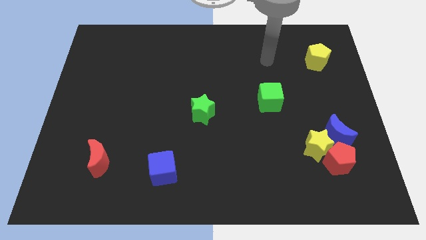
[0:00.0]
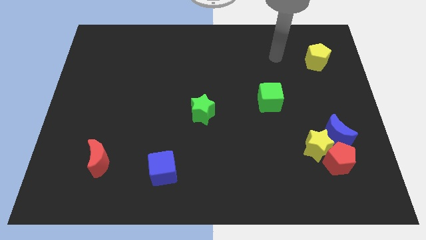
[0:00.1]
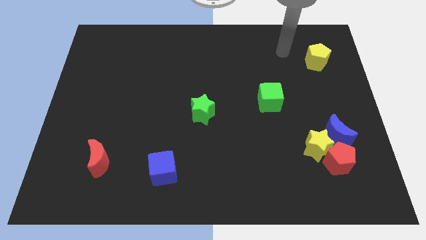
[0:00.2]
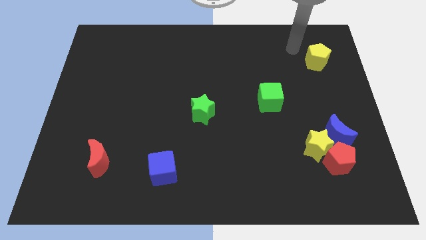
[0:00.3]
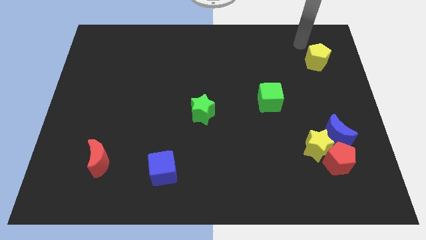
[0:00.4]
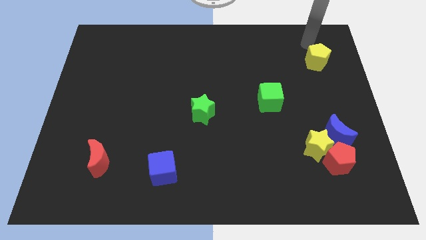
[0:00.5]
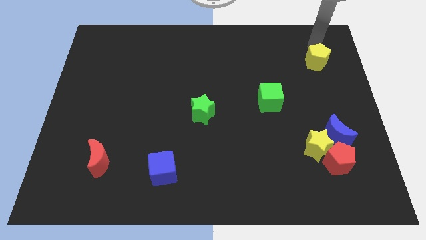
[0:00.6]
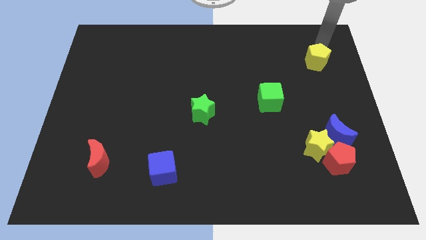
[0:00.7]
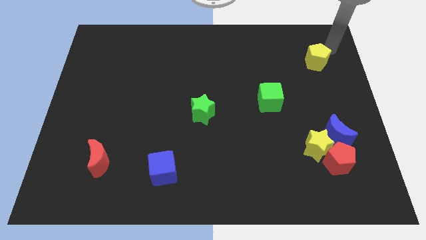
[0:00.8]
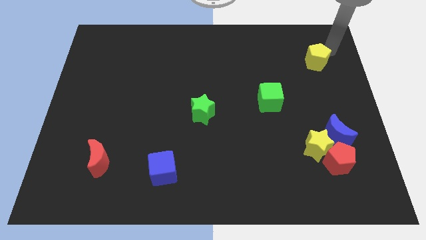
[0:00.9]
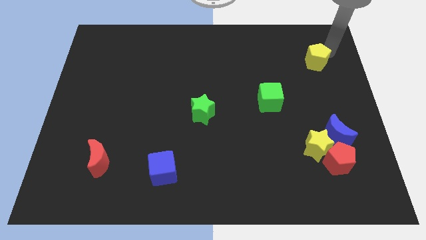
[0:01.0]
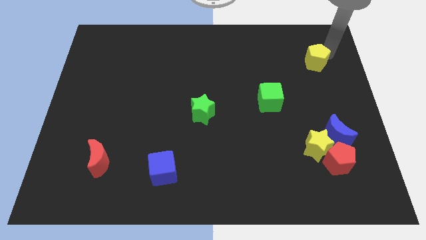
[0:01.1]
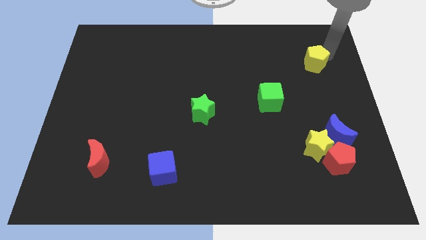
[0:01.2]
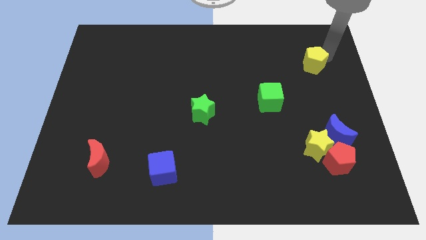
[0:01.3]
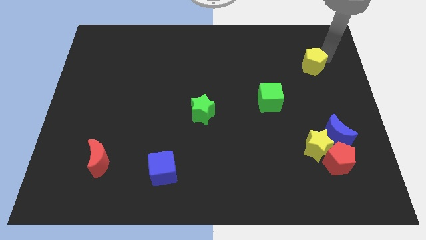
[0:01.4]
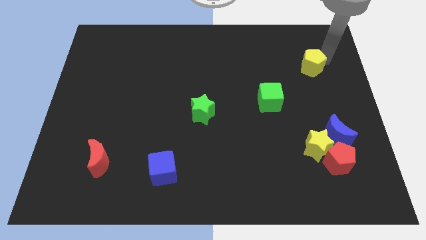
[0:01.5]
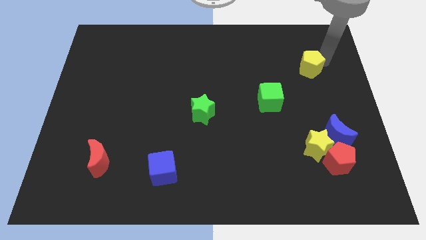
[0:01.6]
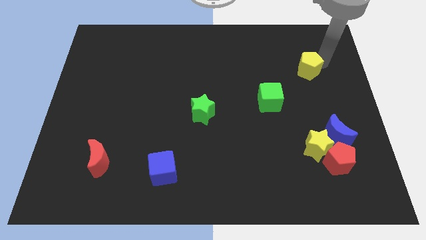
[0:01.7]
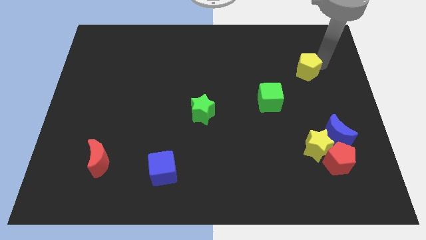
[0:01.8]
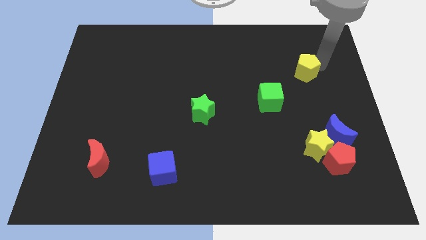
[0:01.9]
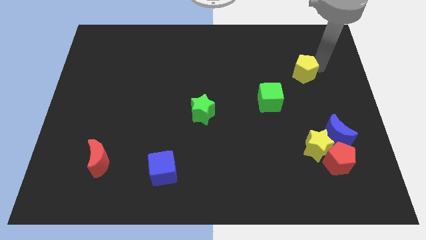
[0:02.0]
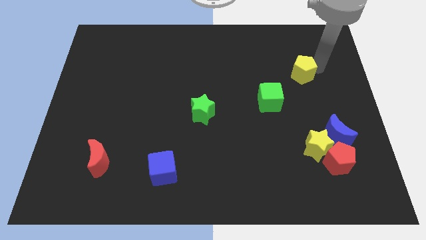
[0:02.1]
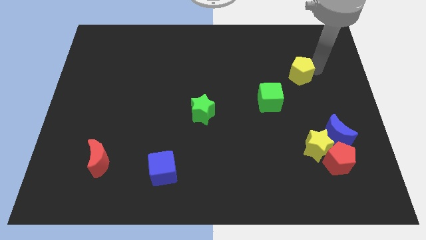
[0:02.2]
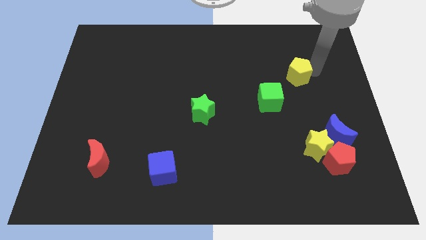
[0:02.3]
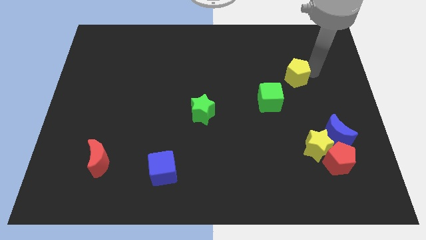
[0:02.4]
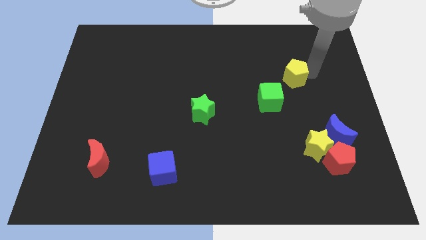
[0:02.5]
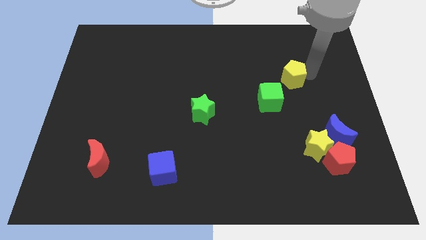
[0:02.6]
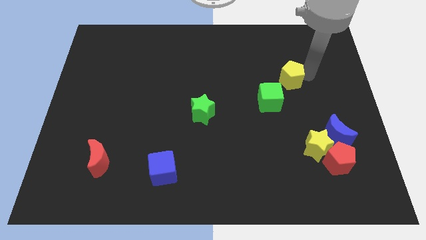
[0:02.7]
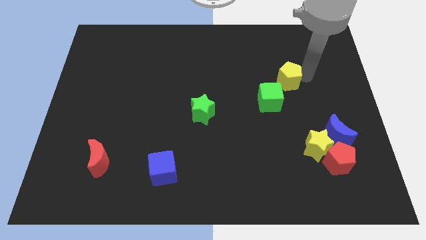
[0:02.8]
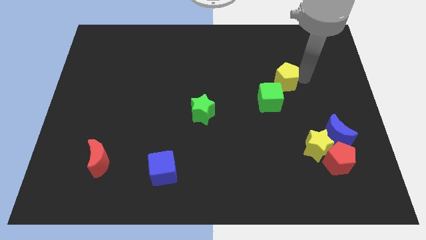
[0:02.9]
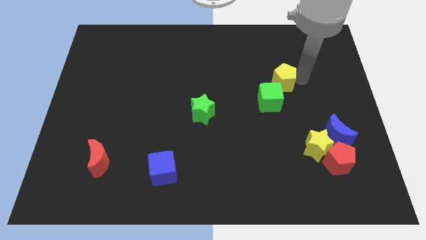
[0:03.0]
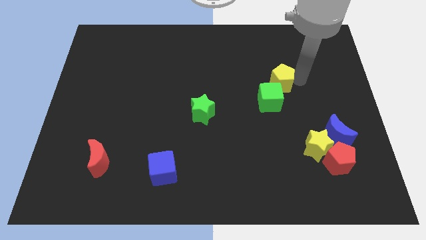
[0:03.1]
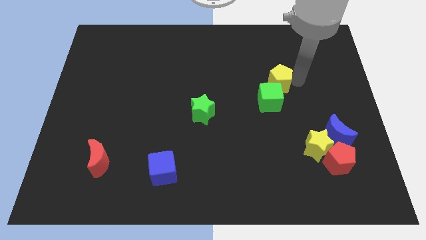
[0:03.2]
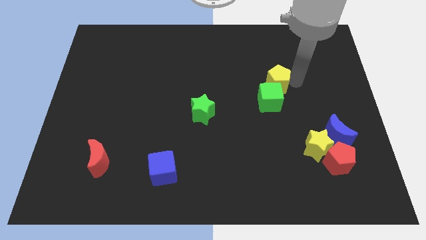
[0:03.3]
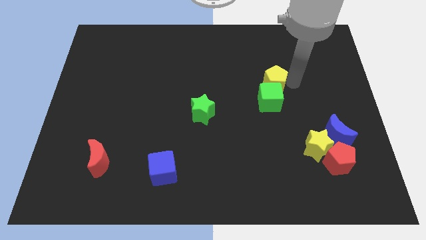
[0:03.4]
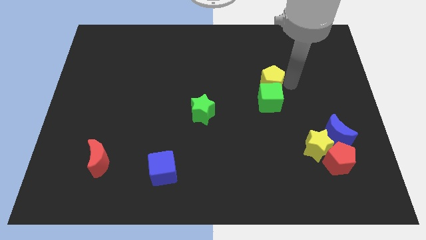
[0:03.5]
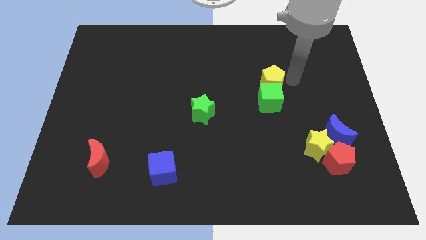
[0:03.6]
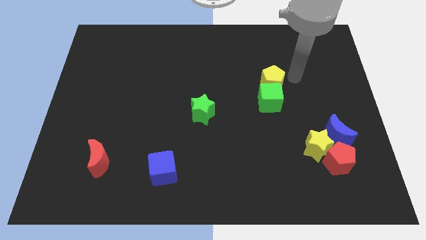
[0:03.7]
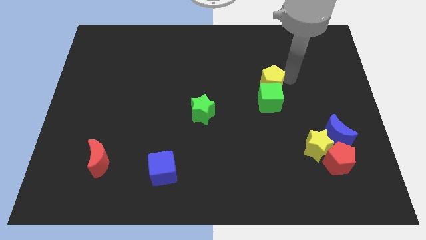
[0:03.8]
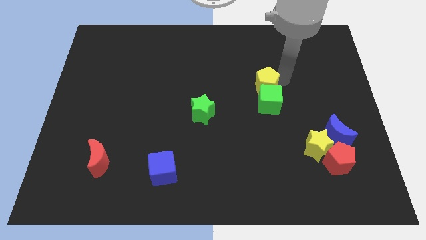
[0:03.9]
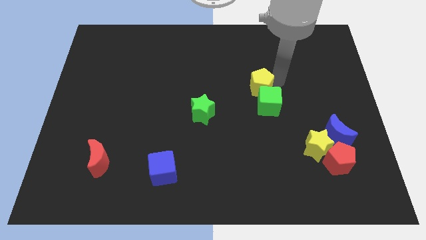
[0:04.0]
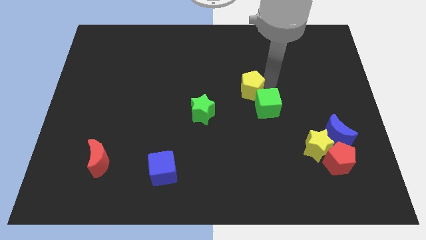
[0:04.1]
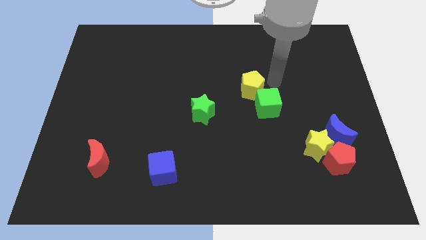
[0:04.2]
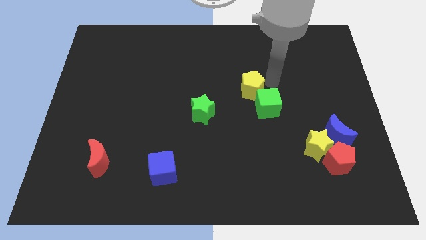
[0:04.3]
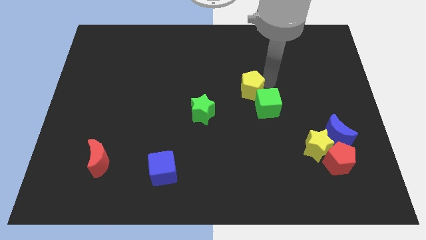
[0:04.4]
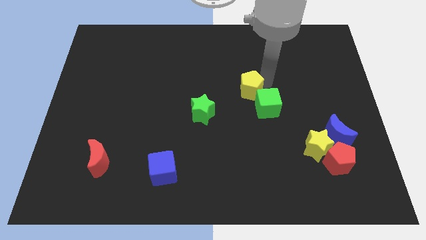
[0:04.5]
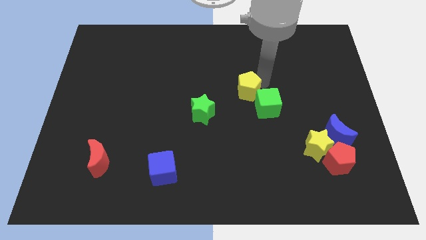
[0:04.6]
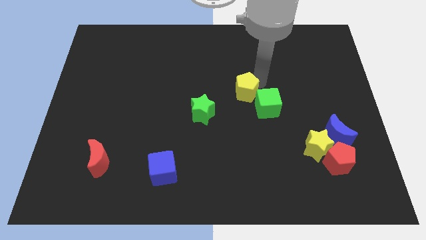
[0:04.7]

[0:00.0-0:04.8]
put the yellow pentagon diagonally up and to the right of the green star

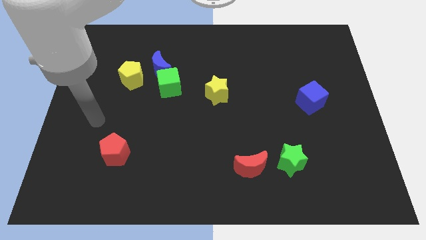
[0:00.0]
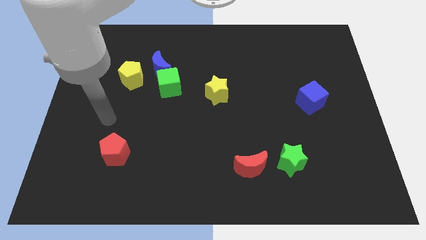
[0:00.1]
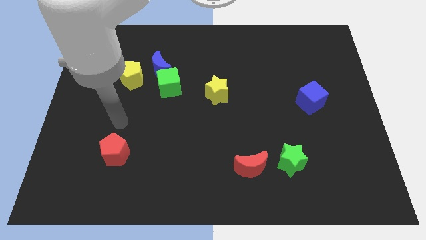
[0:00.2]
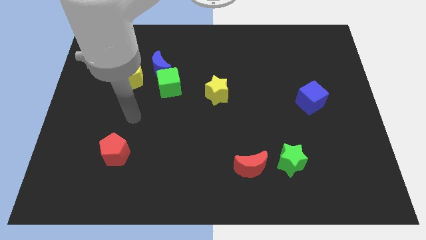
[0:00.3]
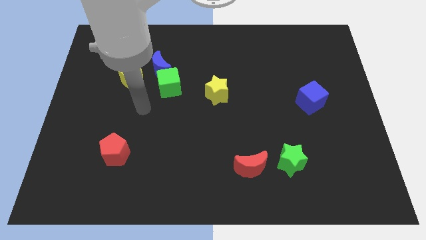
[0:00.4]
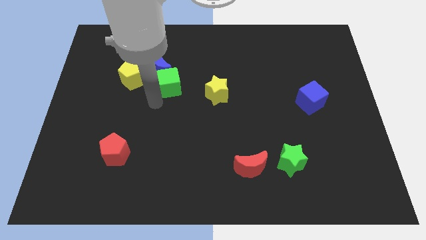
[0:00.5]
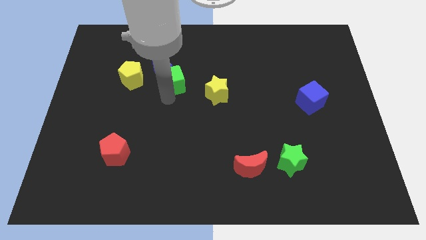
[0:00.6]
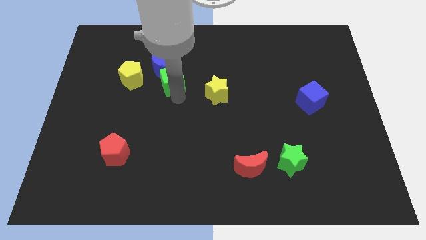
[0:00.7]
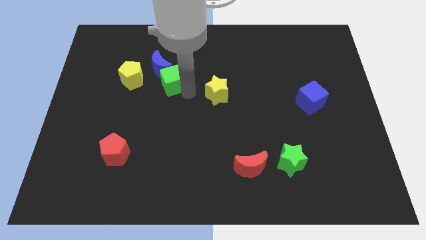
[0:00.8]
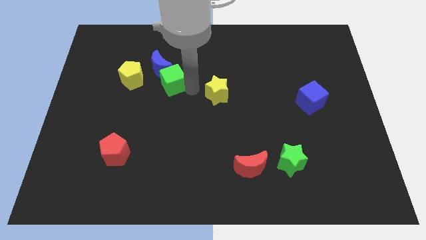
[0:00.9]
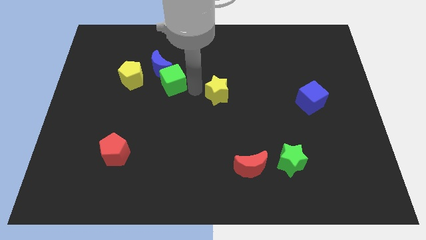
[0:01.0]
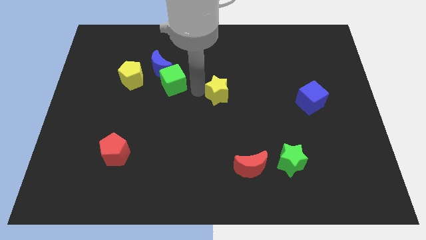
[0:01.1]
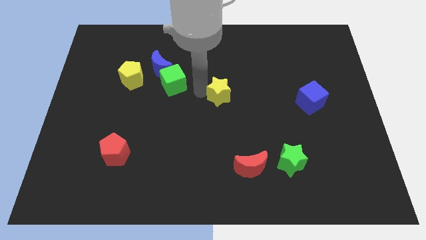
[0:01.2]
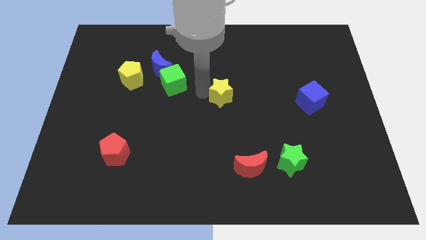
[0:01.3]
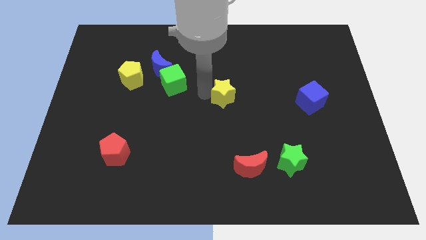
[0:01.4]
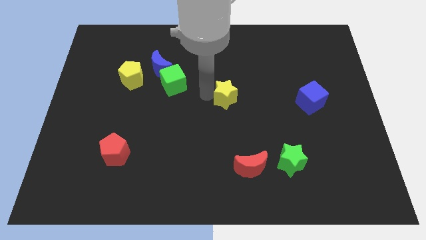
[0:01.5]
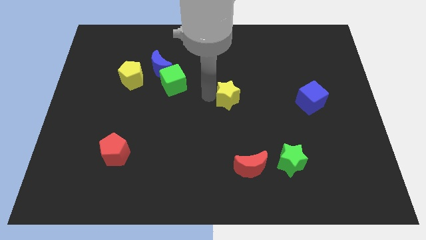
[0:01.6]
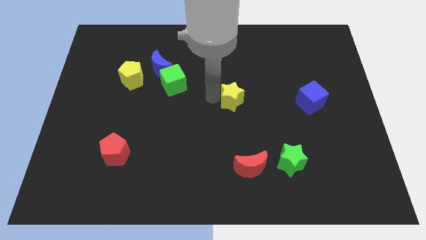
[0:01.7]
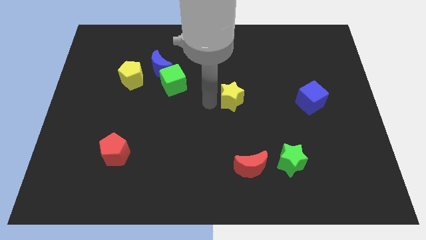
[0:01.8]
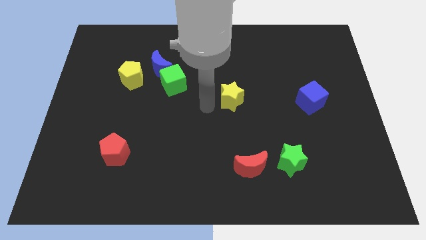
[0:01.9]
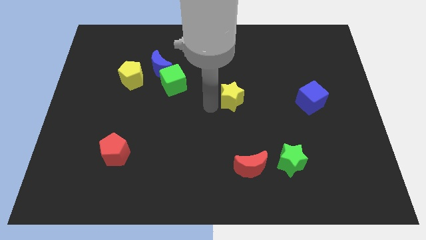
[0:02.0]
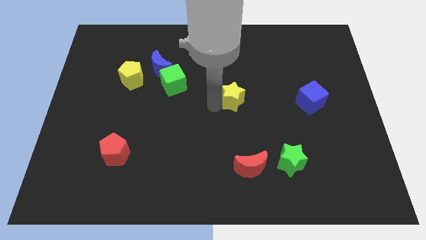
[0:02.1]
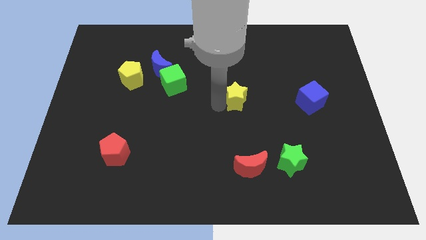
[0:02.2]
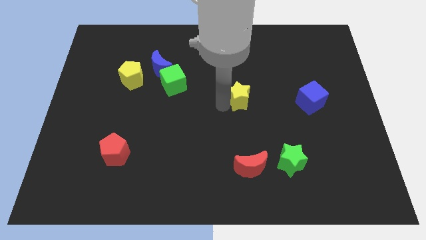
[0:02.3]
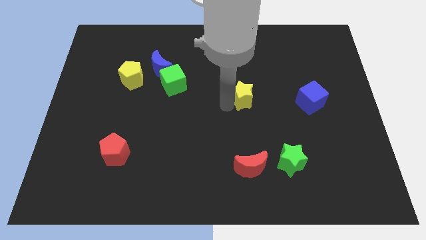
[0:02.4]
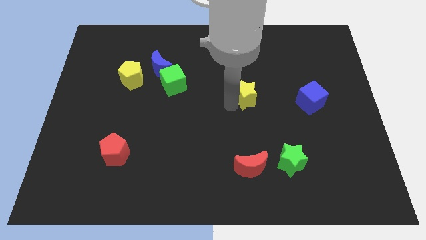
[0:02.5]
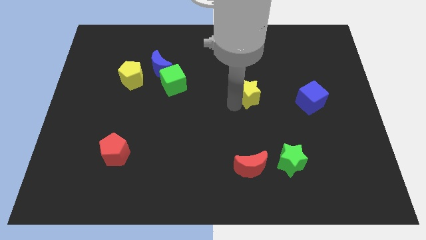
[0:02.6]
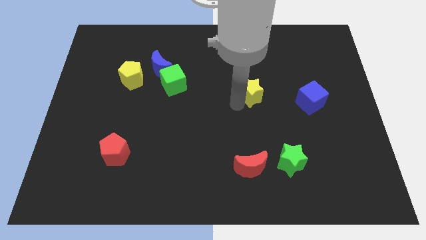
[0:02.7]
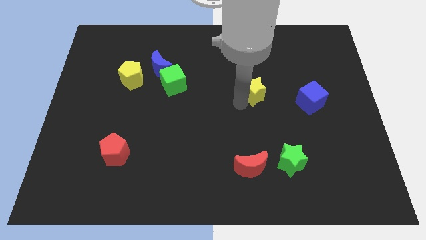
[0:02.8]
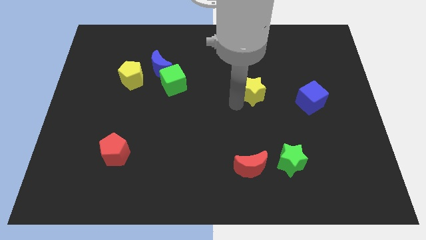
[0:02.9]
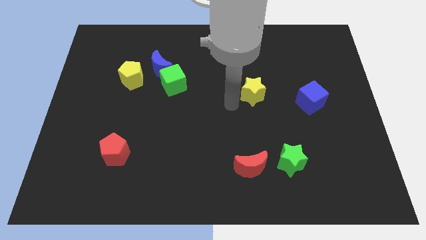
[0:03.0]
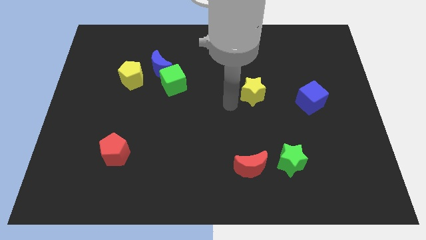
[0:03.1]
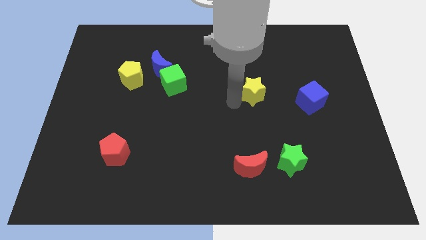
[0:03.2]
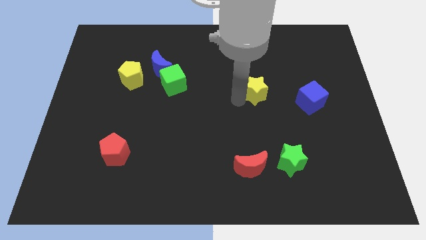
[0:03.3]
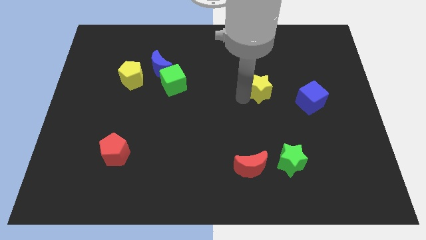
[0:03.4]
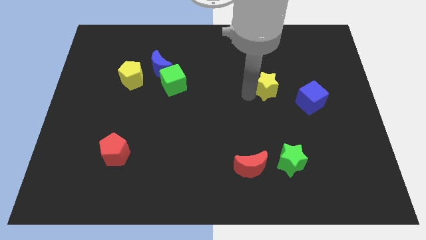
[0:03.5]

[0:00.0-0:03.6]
push the yellow star diagonally up and to the left of the blue cube
